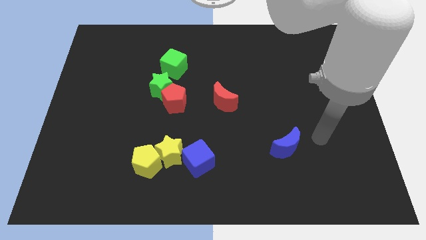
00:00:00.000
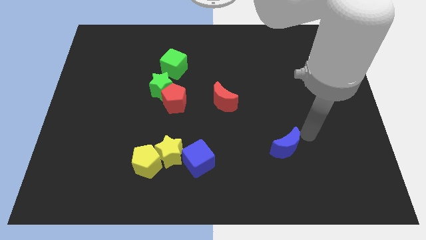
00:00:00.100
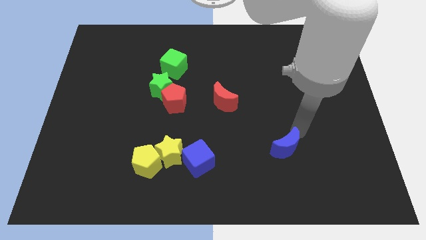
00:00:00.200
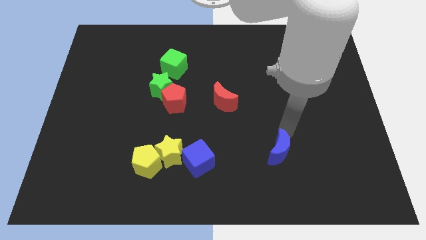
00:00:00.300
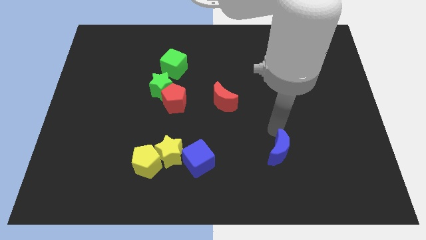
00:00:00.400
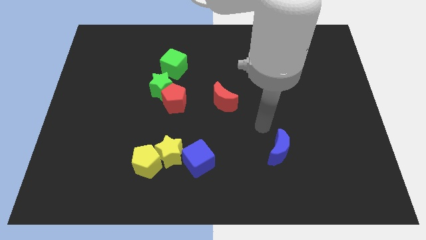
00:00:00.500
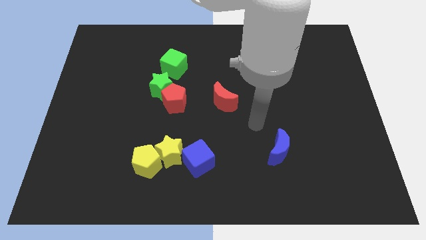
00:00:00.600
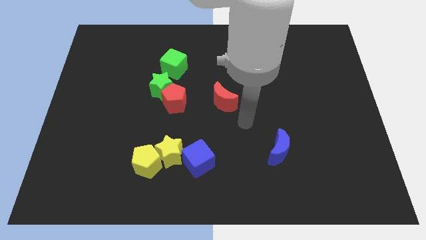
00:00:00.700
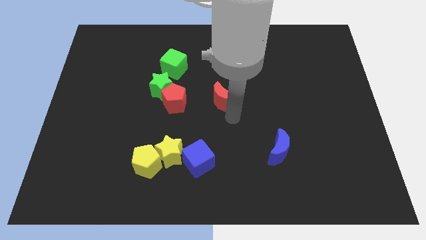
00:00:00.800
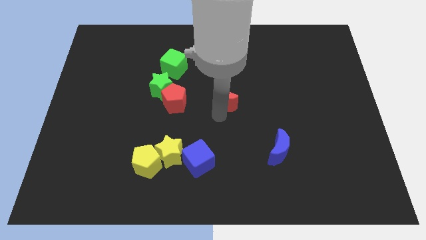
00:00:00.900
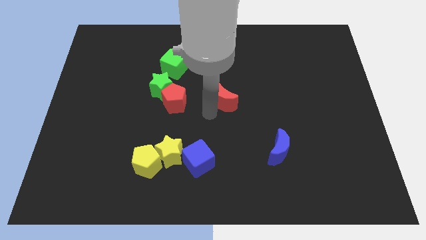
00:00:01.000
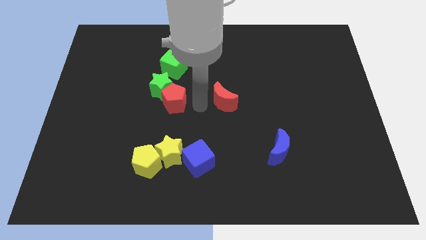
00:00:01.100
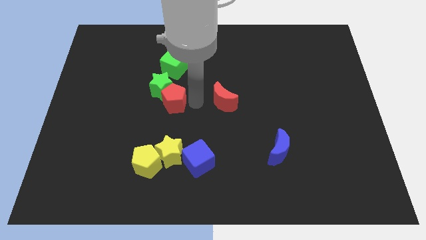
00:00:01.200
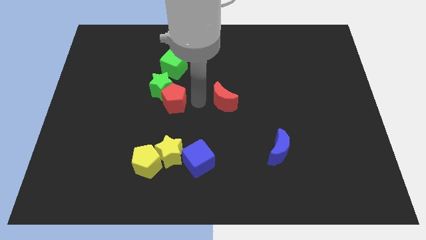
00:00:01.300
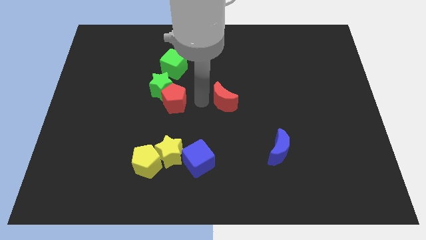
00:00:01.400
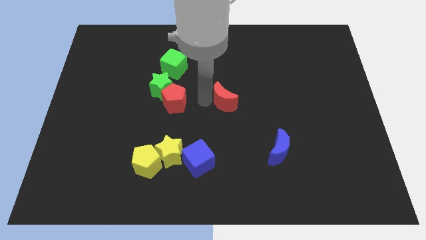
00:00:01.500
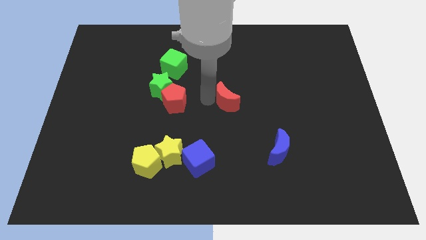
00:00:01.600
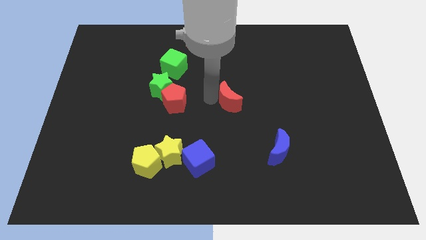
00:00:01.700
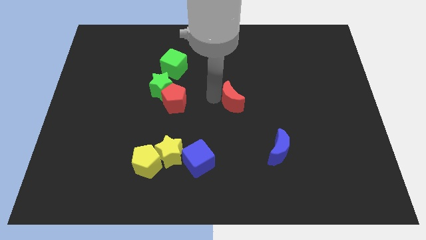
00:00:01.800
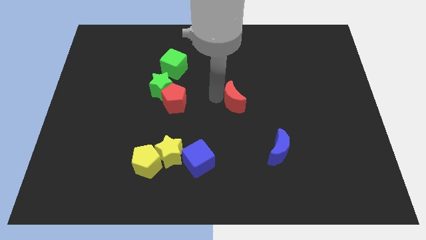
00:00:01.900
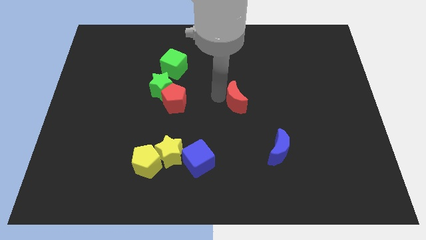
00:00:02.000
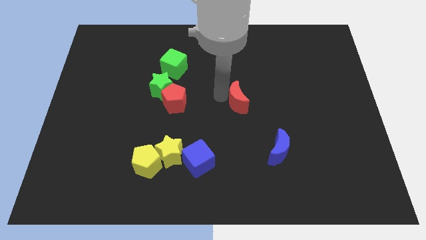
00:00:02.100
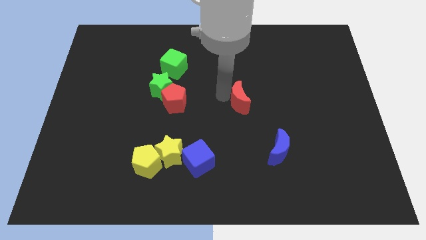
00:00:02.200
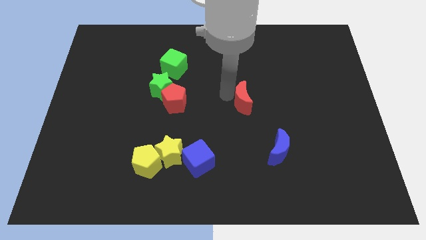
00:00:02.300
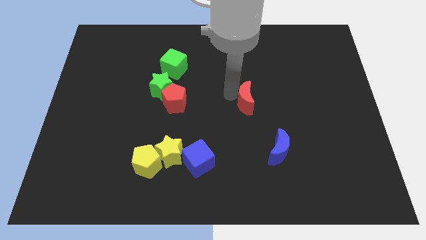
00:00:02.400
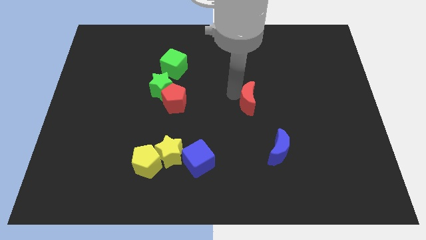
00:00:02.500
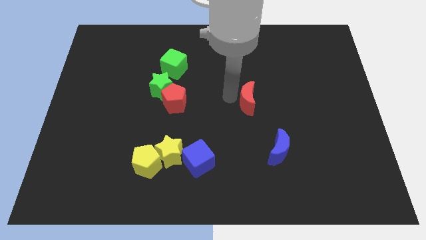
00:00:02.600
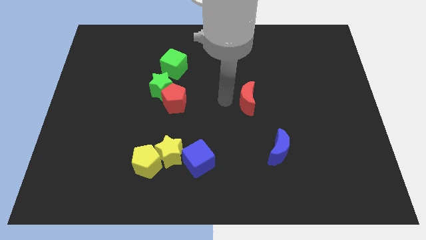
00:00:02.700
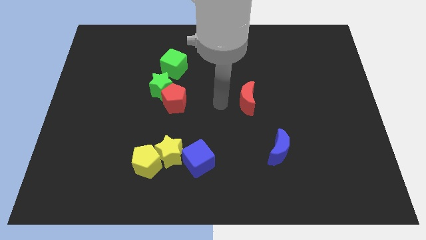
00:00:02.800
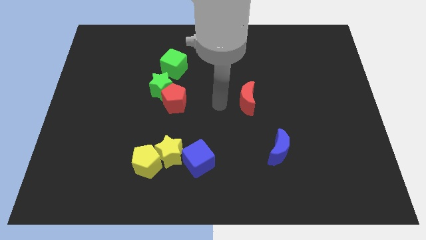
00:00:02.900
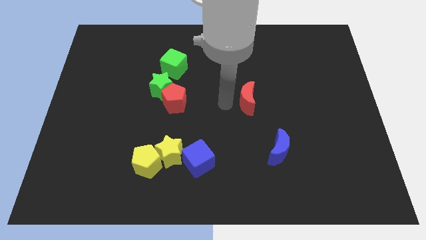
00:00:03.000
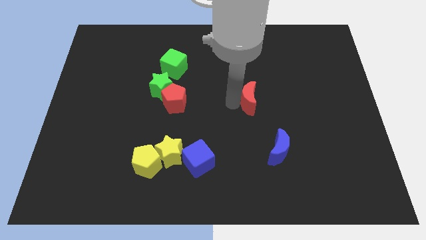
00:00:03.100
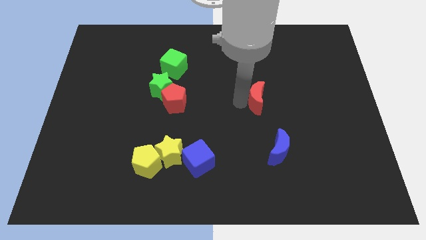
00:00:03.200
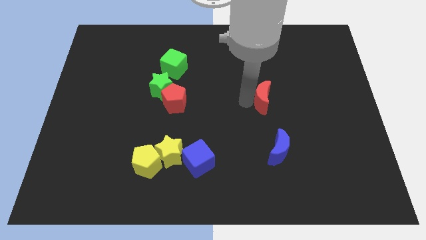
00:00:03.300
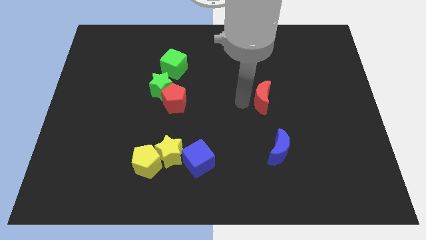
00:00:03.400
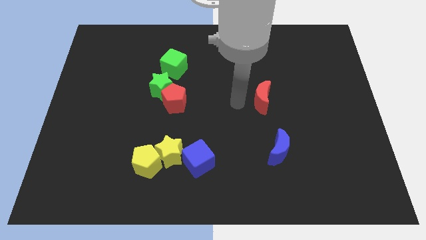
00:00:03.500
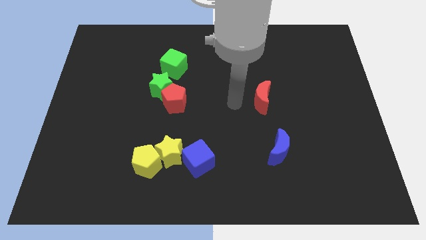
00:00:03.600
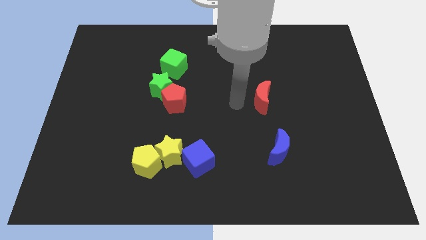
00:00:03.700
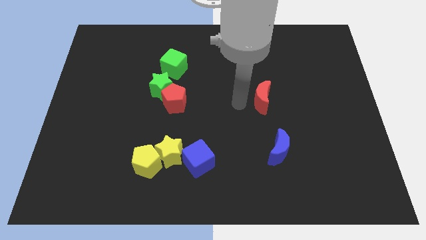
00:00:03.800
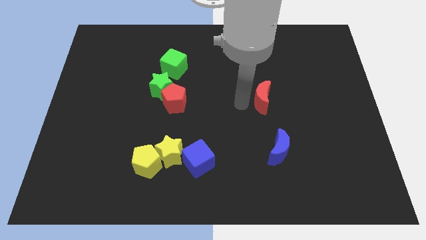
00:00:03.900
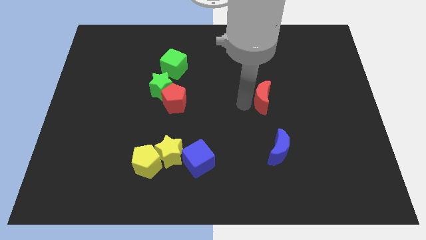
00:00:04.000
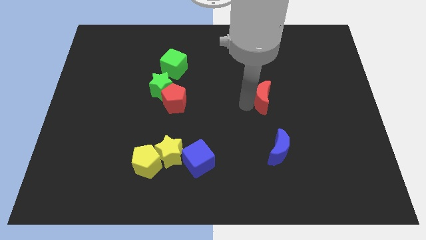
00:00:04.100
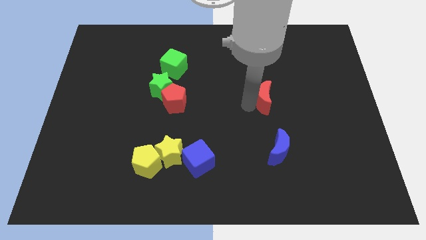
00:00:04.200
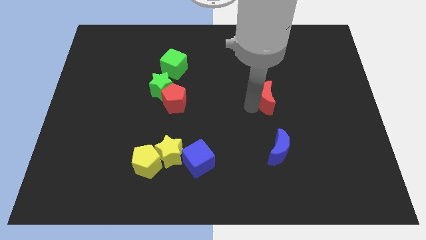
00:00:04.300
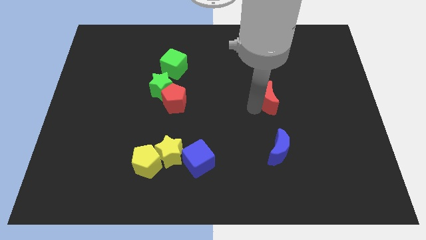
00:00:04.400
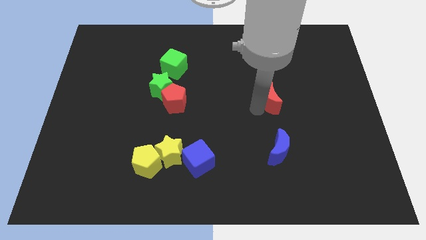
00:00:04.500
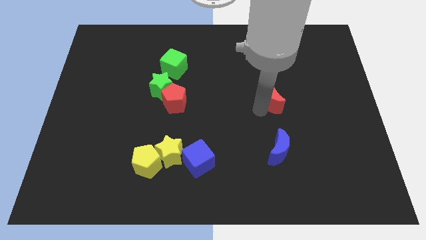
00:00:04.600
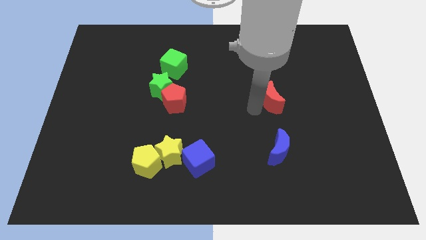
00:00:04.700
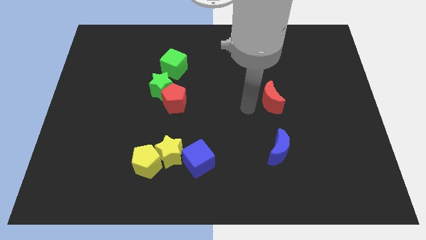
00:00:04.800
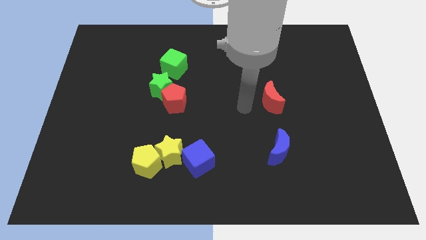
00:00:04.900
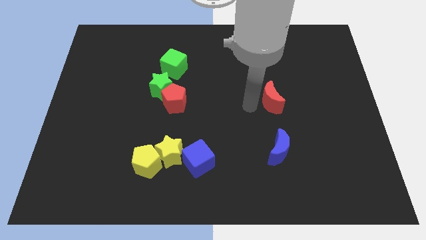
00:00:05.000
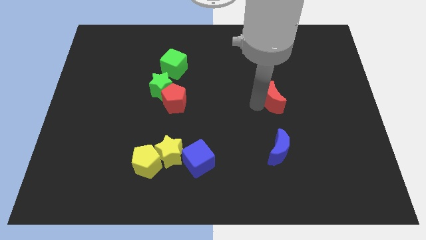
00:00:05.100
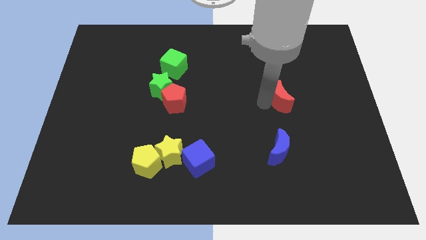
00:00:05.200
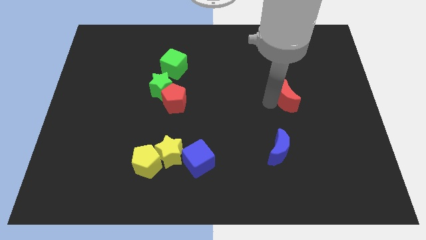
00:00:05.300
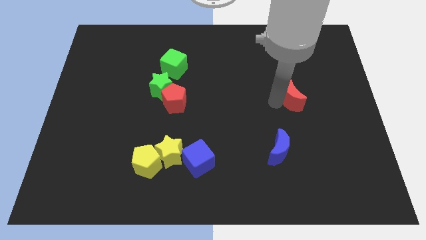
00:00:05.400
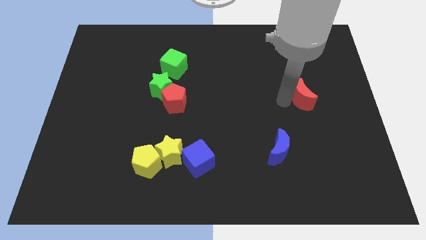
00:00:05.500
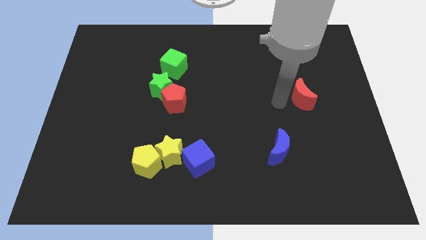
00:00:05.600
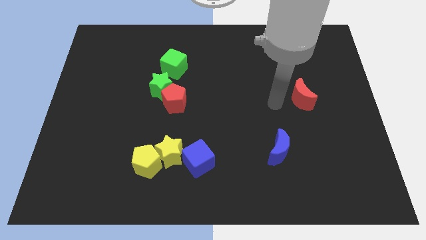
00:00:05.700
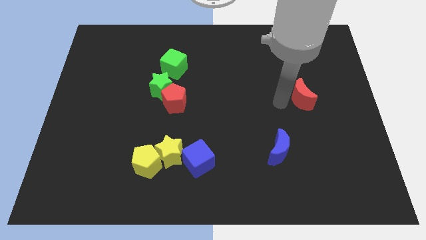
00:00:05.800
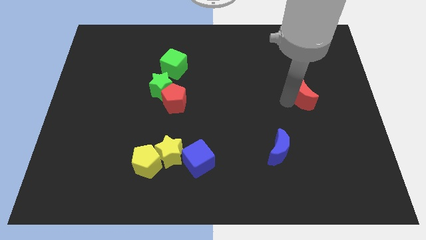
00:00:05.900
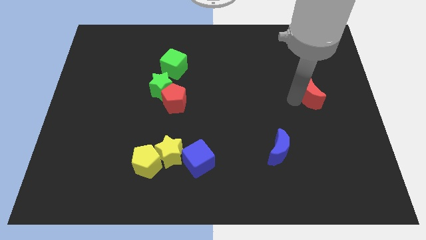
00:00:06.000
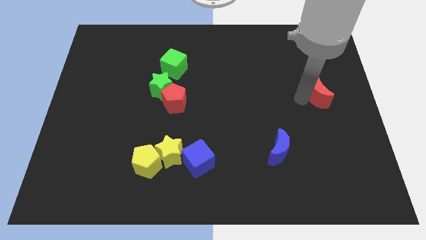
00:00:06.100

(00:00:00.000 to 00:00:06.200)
move the red moon to the right side of the board
